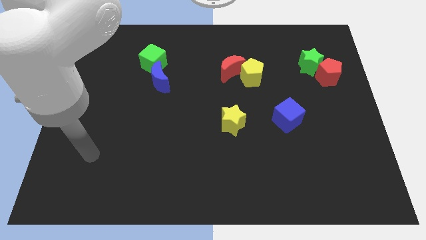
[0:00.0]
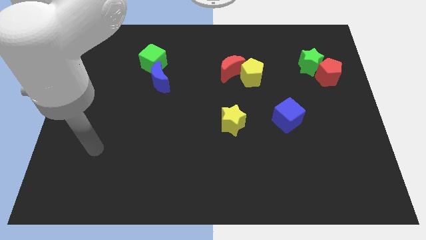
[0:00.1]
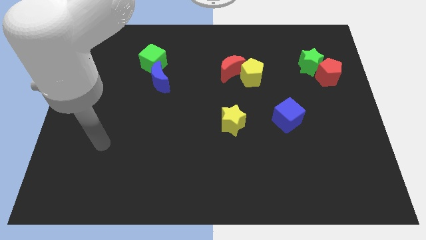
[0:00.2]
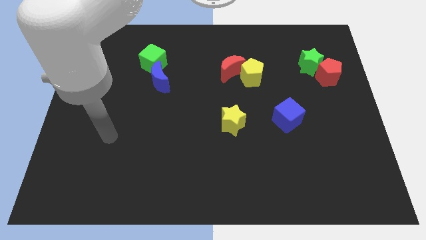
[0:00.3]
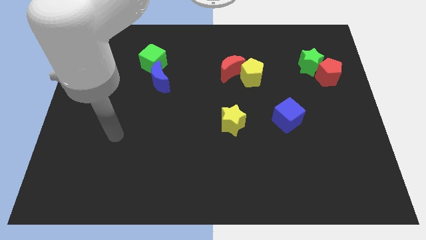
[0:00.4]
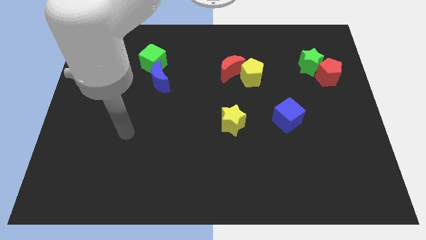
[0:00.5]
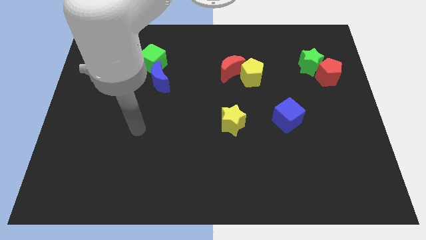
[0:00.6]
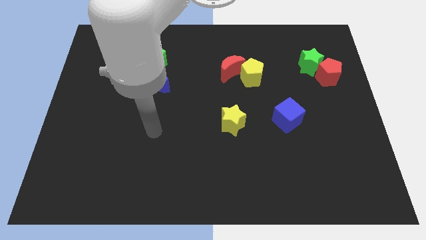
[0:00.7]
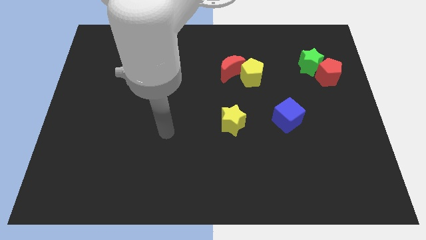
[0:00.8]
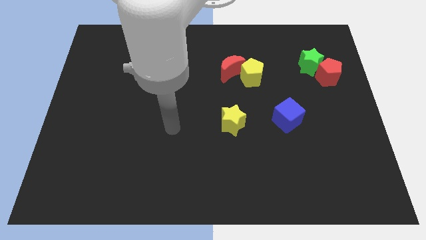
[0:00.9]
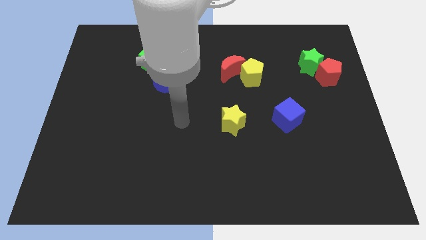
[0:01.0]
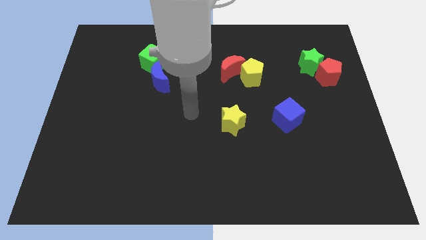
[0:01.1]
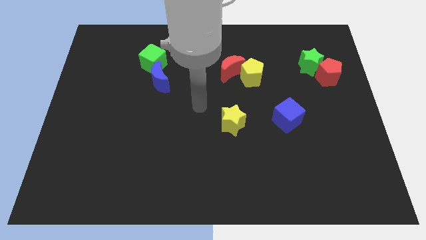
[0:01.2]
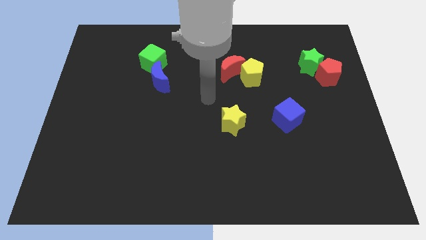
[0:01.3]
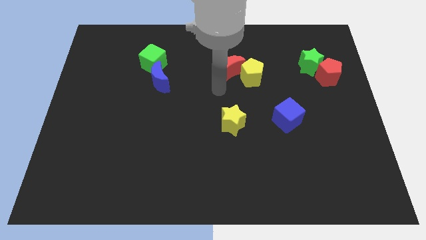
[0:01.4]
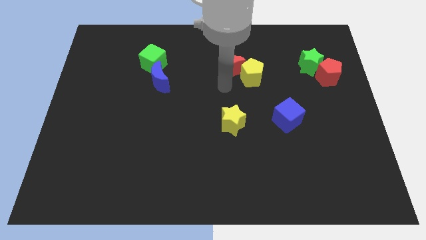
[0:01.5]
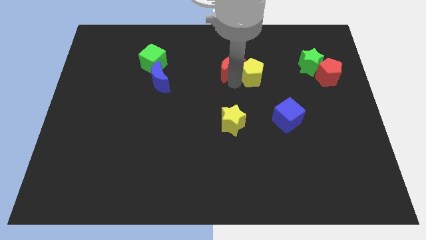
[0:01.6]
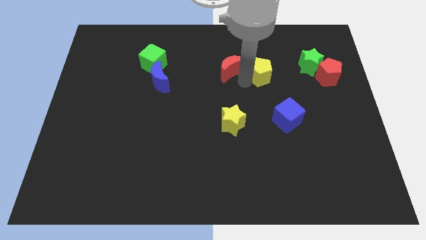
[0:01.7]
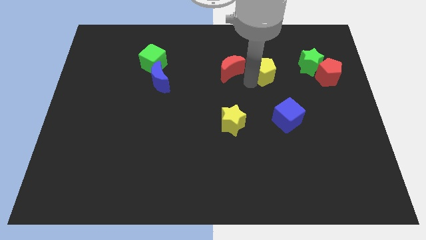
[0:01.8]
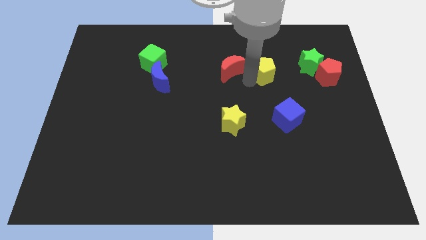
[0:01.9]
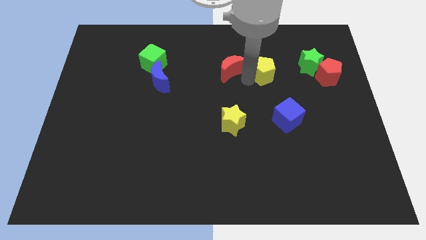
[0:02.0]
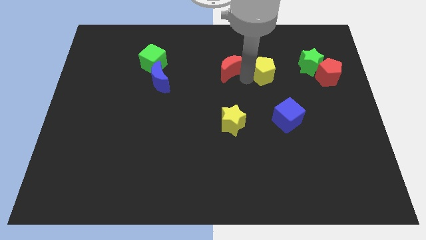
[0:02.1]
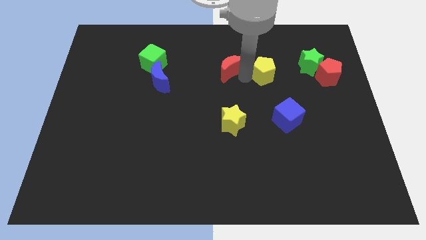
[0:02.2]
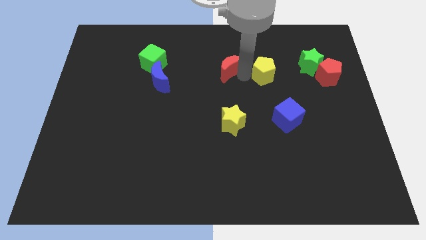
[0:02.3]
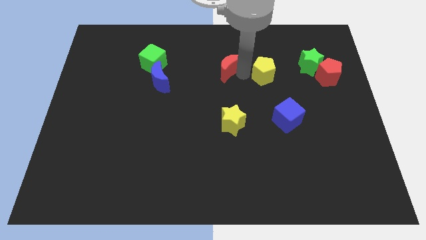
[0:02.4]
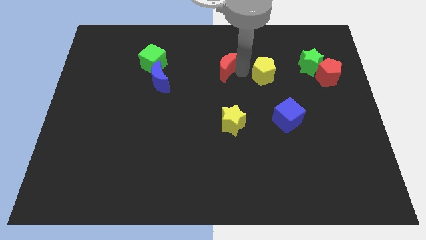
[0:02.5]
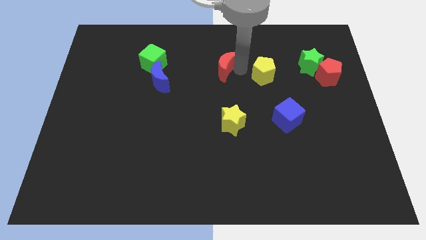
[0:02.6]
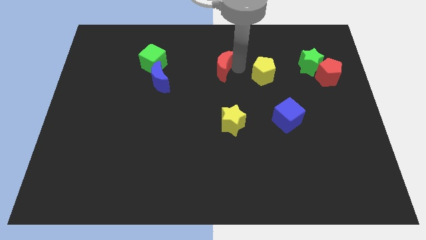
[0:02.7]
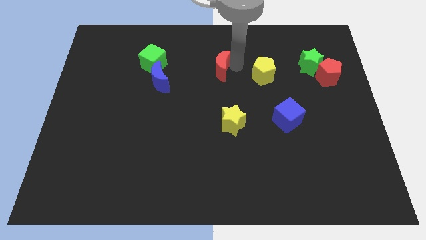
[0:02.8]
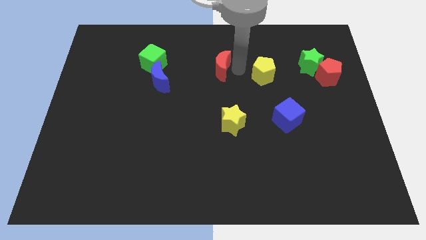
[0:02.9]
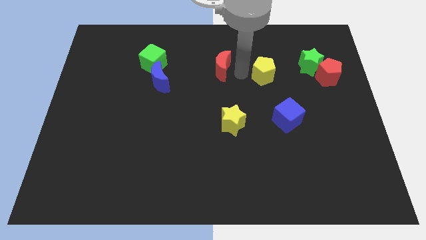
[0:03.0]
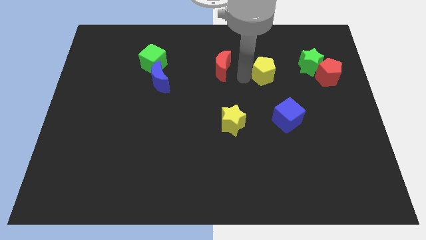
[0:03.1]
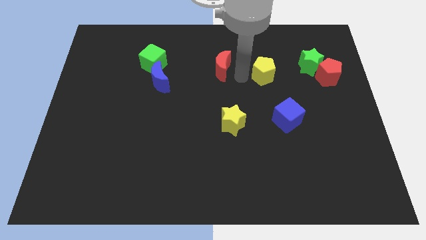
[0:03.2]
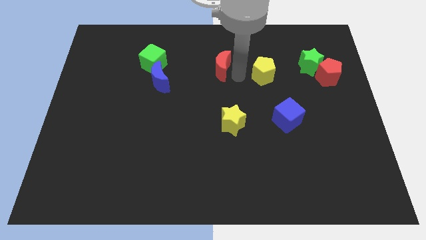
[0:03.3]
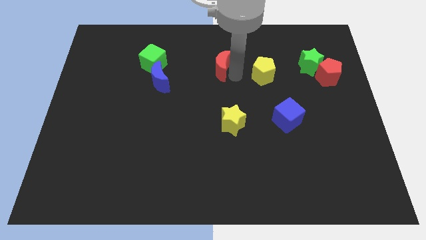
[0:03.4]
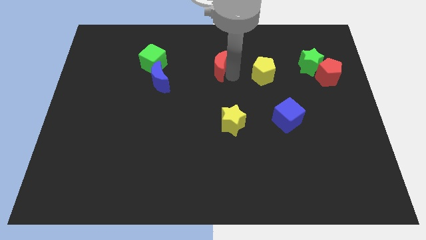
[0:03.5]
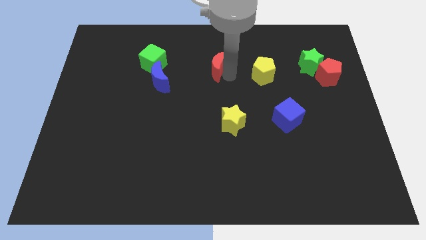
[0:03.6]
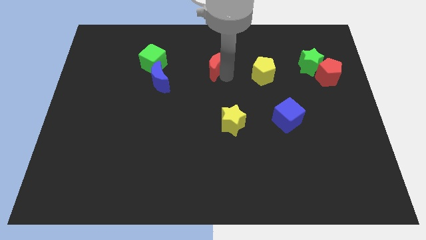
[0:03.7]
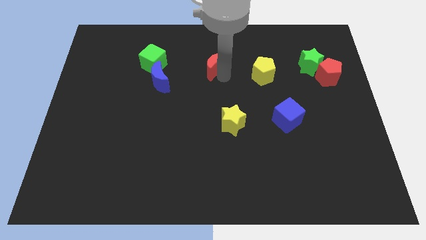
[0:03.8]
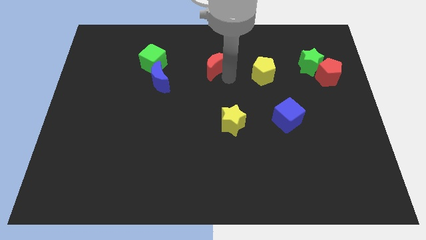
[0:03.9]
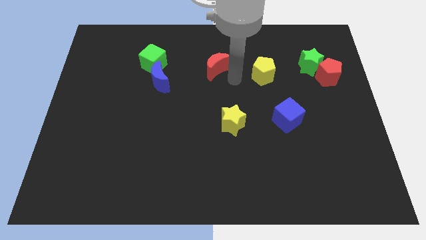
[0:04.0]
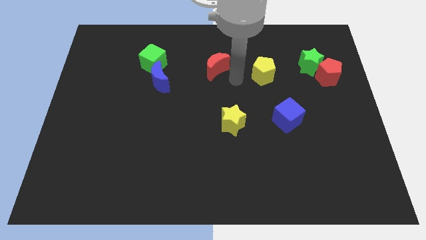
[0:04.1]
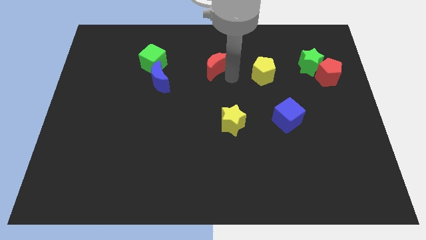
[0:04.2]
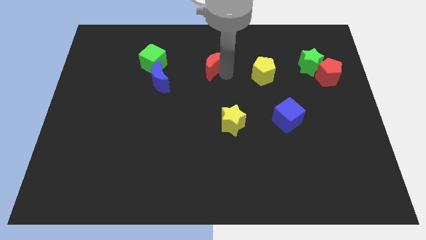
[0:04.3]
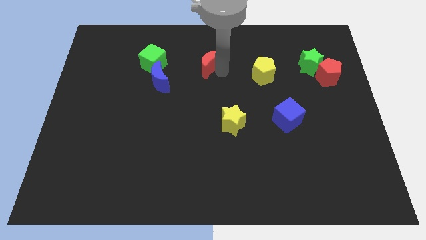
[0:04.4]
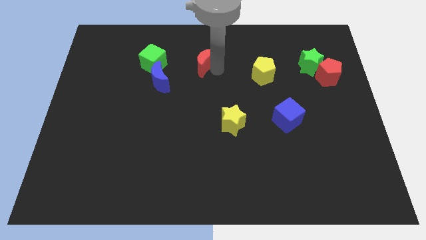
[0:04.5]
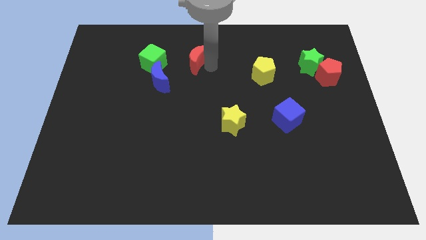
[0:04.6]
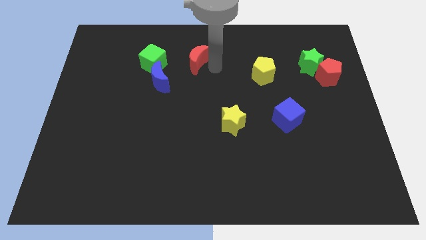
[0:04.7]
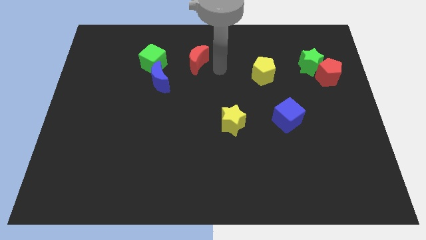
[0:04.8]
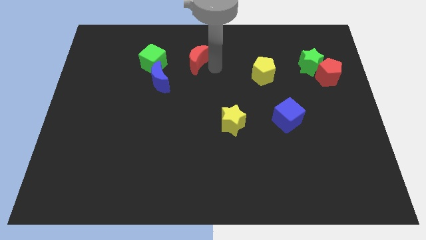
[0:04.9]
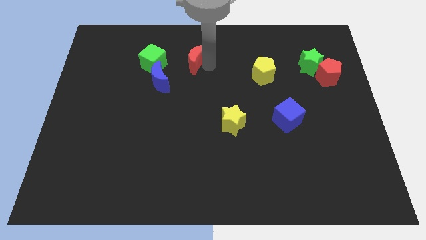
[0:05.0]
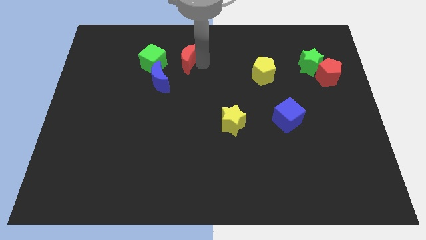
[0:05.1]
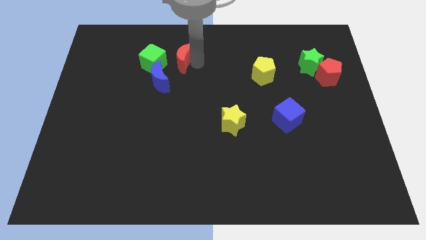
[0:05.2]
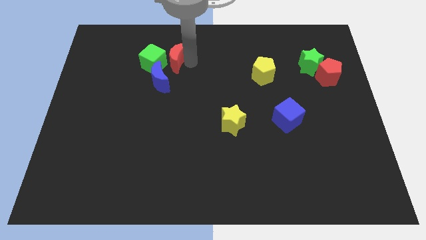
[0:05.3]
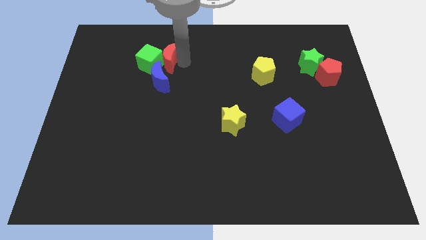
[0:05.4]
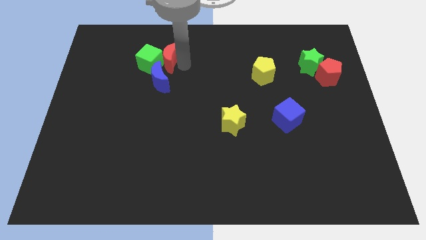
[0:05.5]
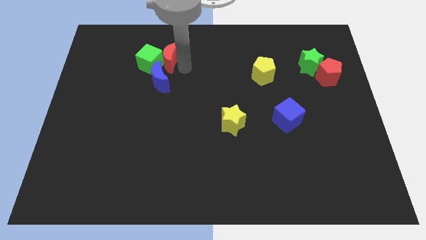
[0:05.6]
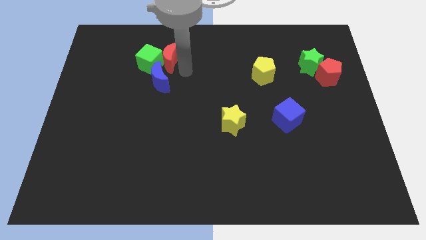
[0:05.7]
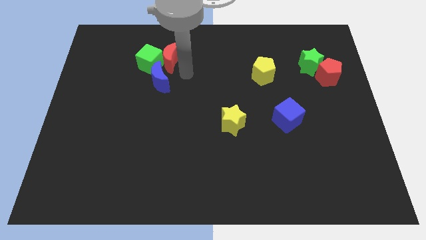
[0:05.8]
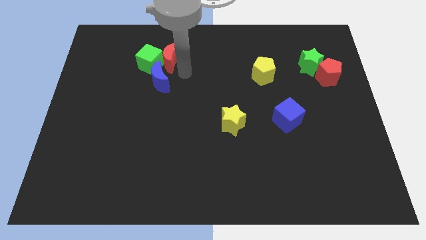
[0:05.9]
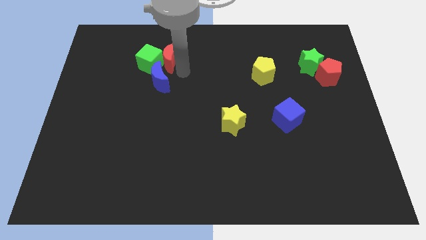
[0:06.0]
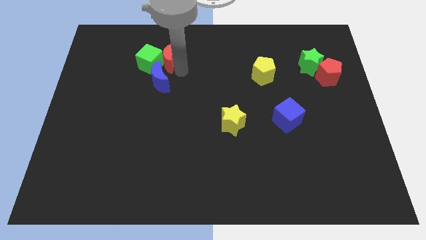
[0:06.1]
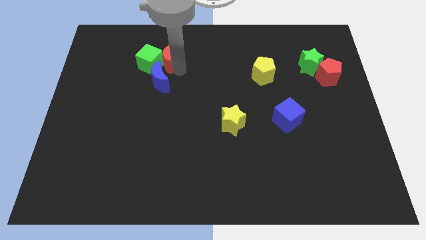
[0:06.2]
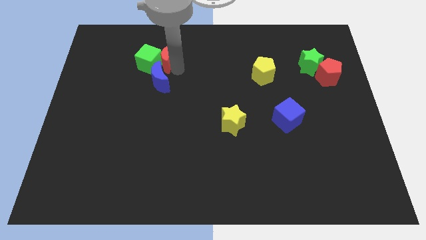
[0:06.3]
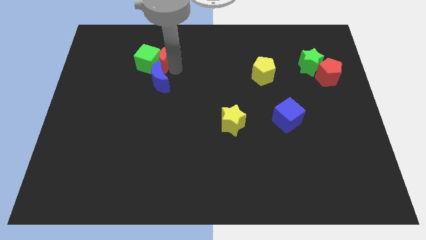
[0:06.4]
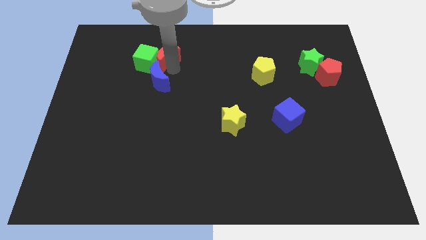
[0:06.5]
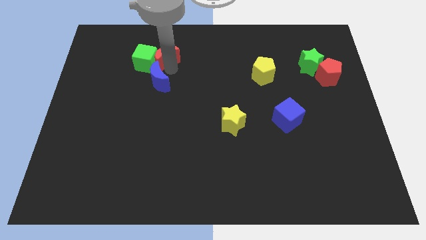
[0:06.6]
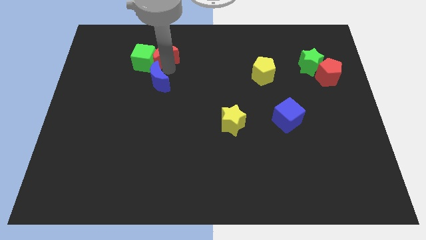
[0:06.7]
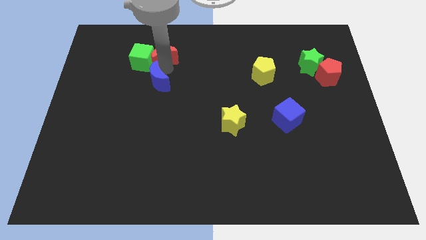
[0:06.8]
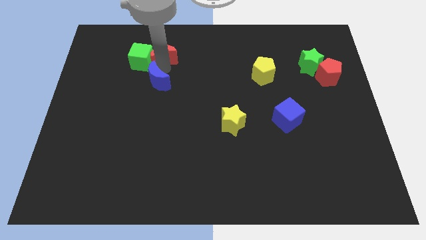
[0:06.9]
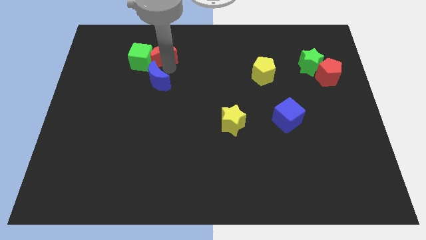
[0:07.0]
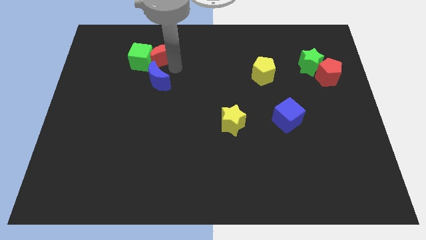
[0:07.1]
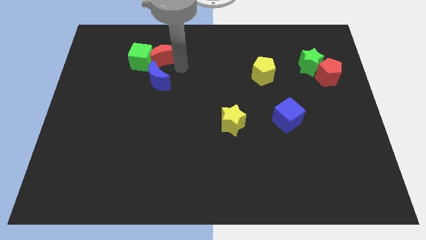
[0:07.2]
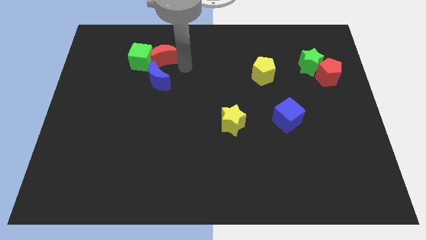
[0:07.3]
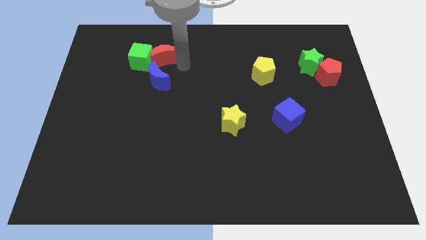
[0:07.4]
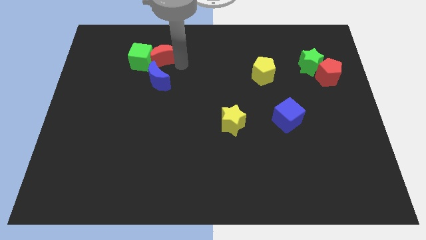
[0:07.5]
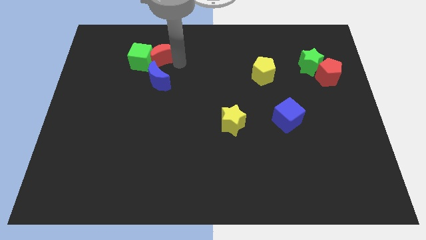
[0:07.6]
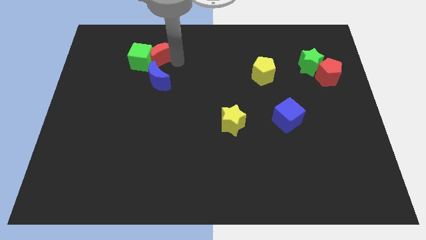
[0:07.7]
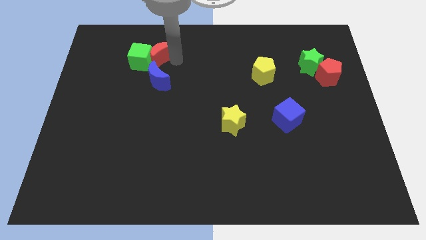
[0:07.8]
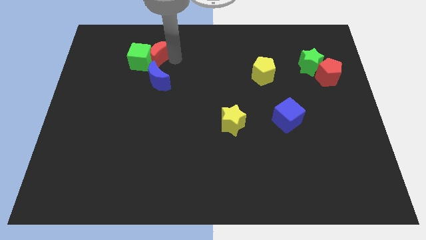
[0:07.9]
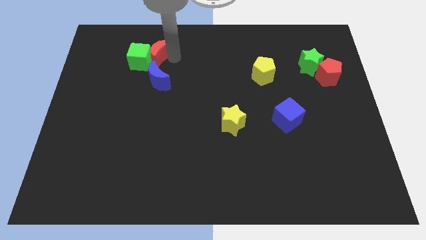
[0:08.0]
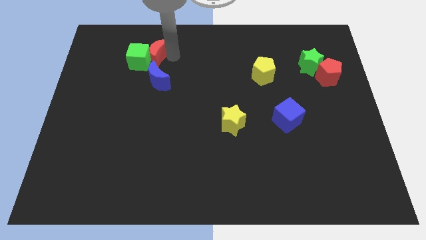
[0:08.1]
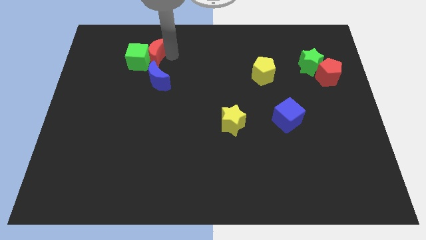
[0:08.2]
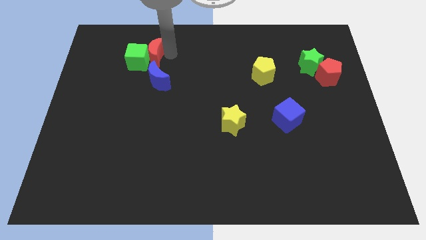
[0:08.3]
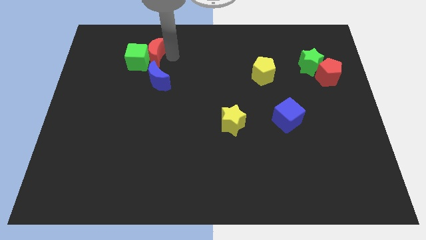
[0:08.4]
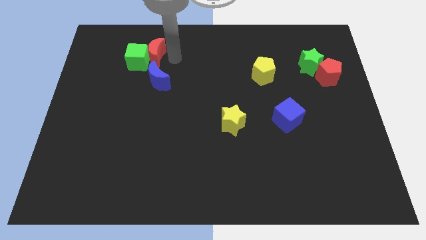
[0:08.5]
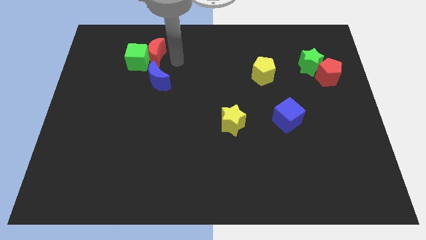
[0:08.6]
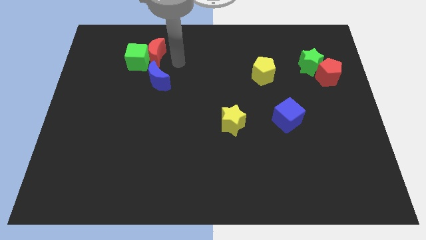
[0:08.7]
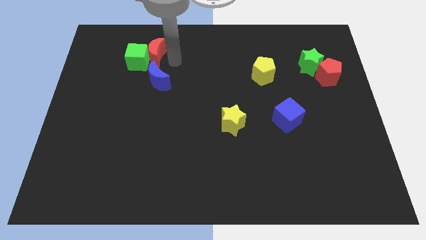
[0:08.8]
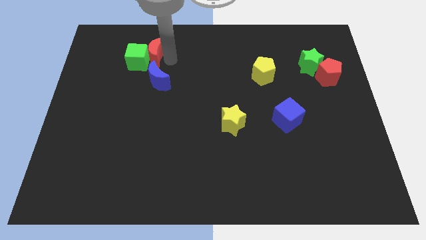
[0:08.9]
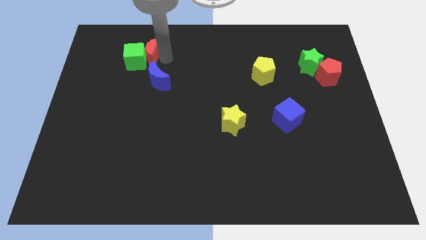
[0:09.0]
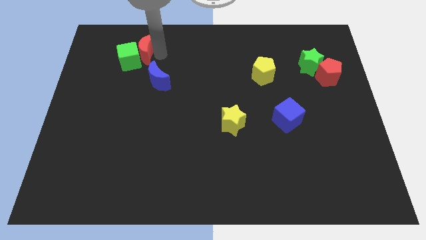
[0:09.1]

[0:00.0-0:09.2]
slide the red moon to the left
